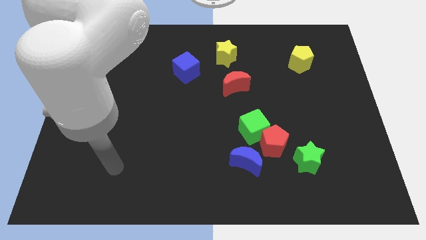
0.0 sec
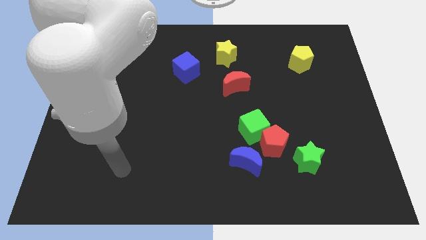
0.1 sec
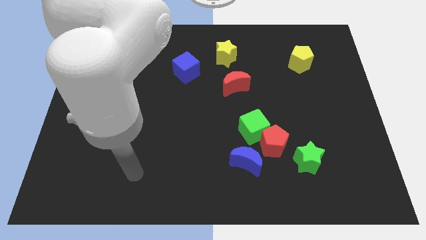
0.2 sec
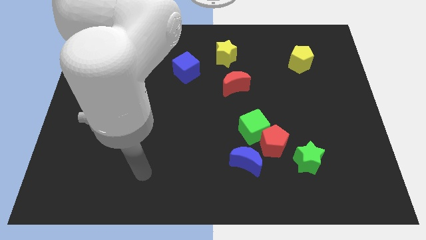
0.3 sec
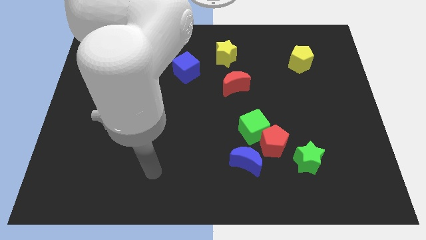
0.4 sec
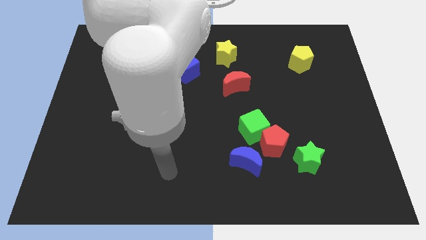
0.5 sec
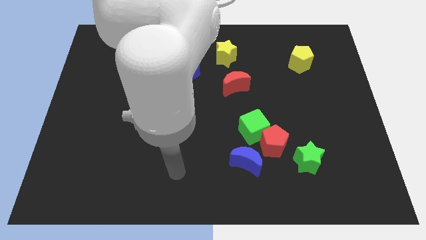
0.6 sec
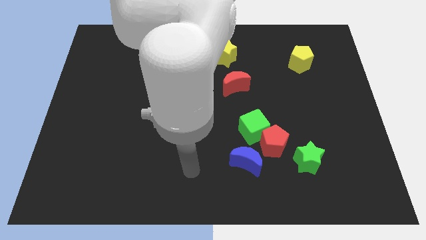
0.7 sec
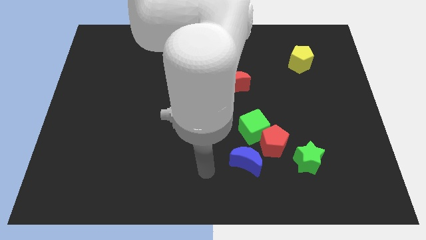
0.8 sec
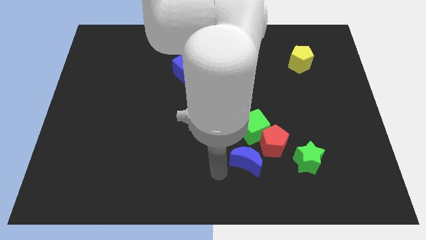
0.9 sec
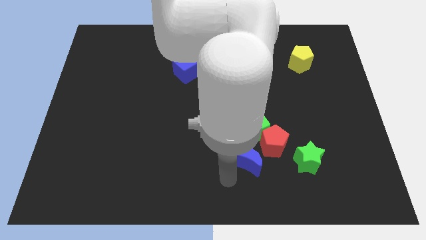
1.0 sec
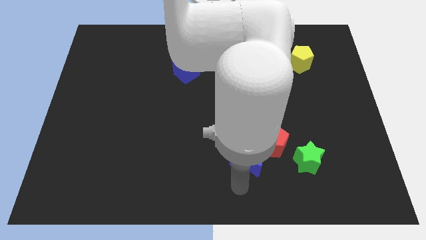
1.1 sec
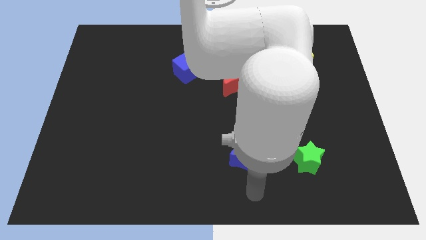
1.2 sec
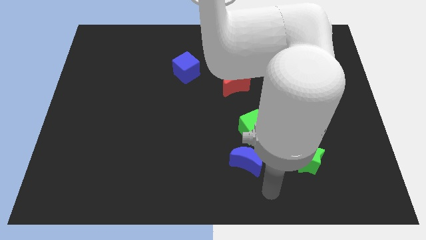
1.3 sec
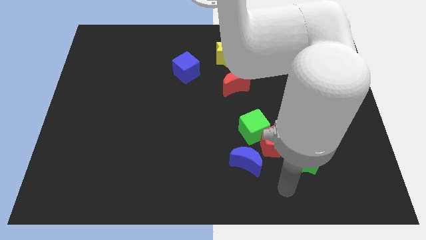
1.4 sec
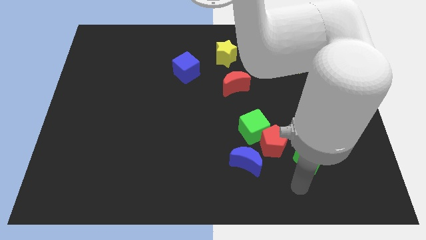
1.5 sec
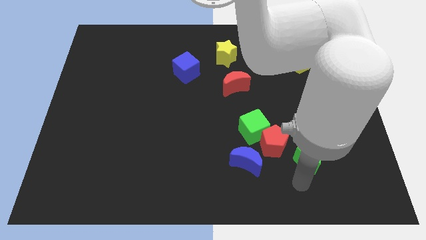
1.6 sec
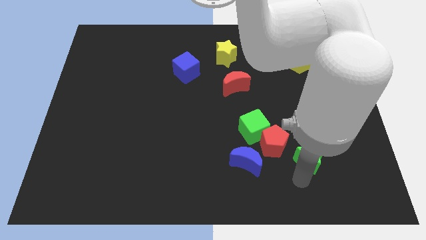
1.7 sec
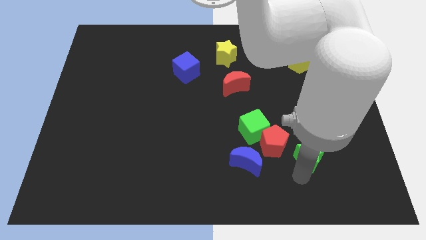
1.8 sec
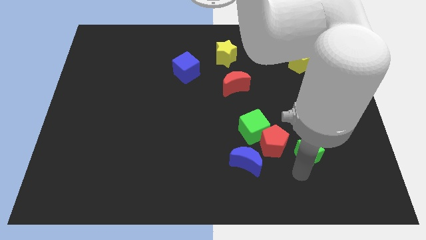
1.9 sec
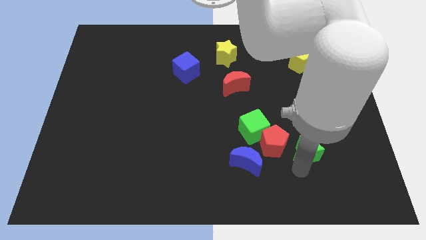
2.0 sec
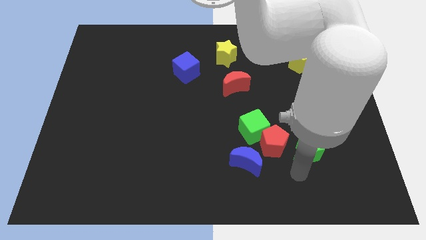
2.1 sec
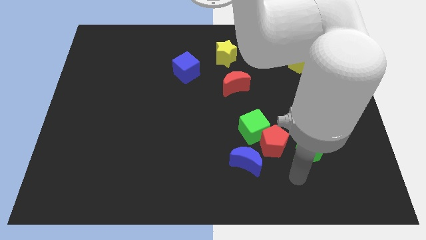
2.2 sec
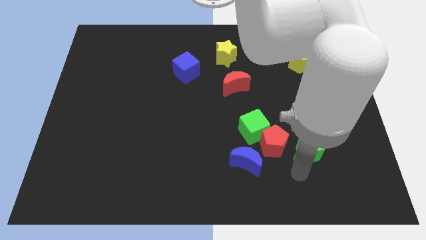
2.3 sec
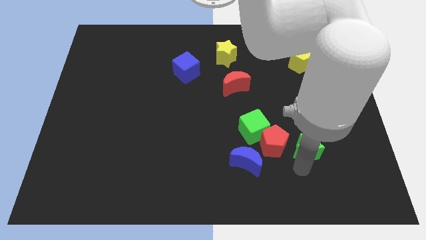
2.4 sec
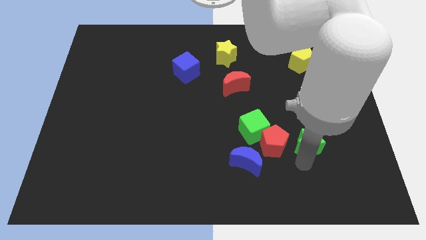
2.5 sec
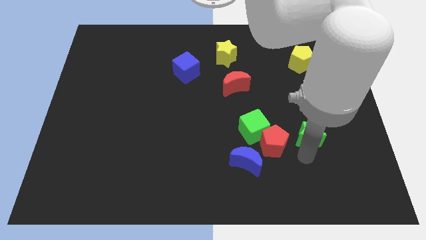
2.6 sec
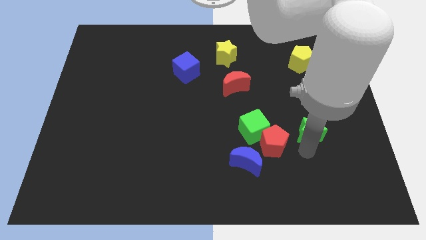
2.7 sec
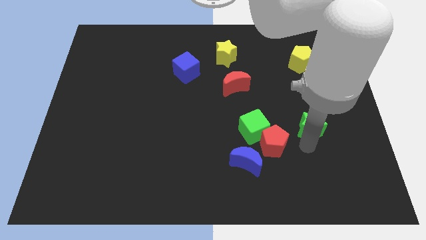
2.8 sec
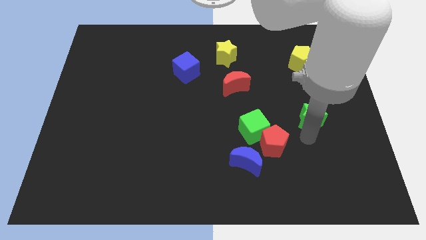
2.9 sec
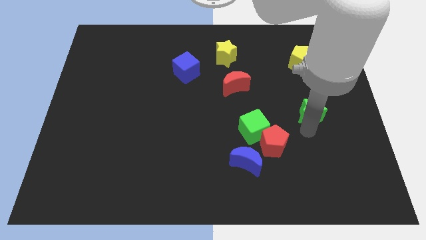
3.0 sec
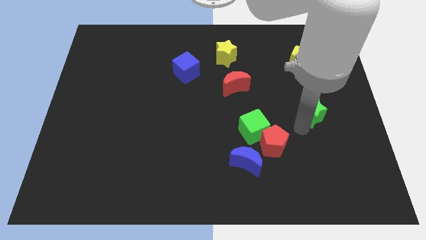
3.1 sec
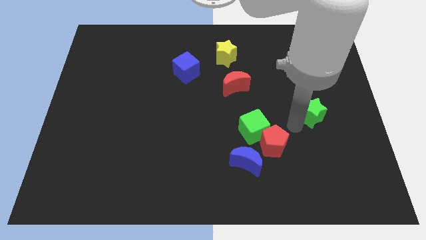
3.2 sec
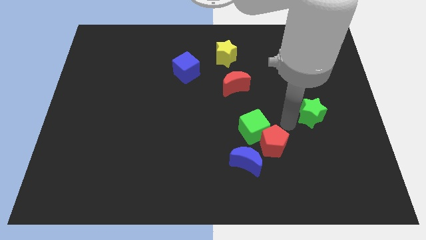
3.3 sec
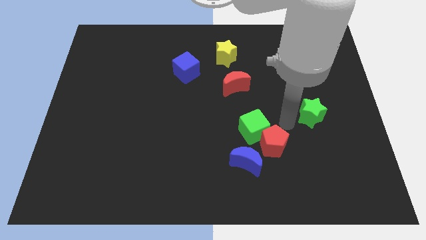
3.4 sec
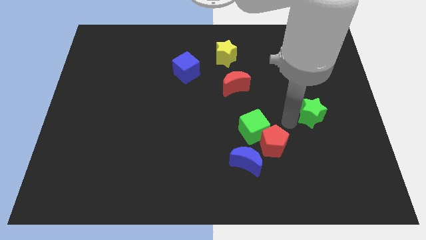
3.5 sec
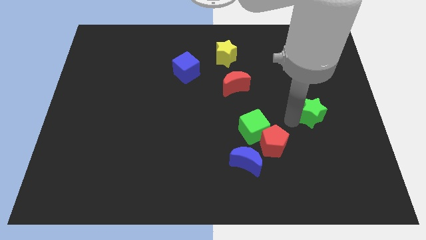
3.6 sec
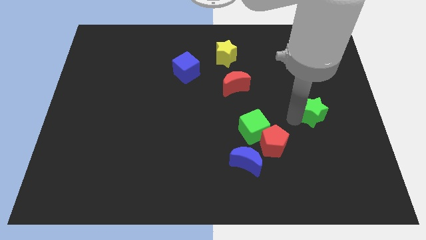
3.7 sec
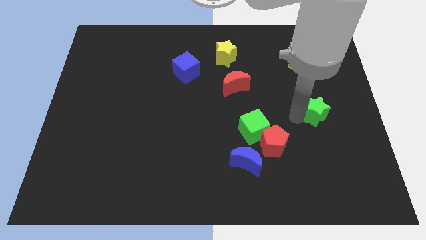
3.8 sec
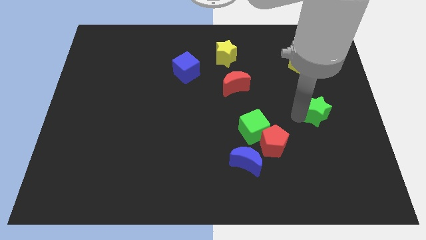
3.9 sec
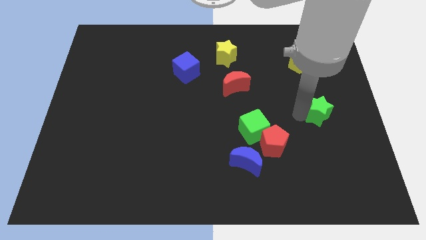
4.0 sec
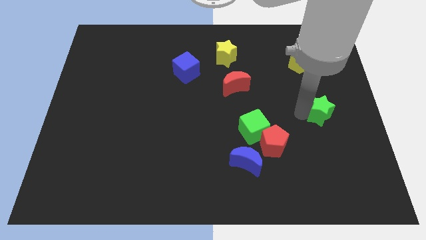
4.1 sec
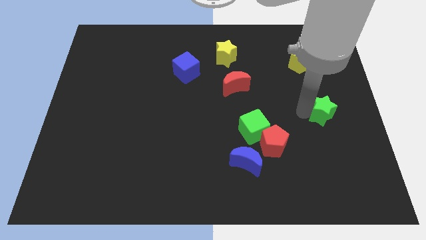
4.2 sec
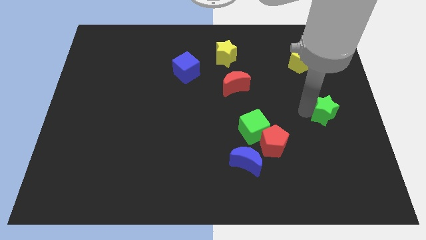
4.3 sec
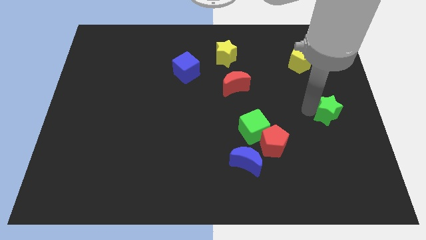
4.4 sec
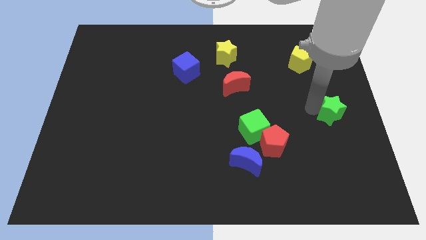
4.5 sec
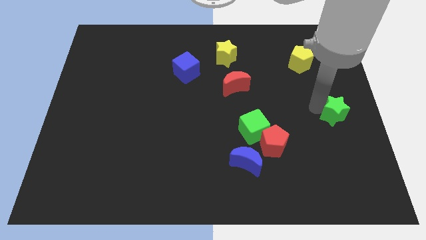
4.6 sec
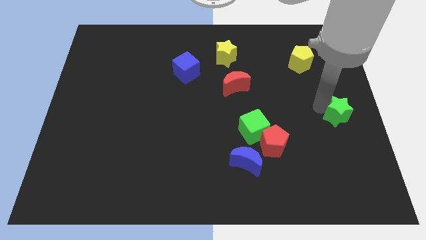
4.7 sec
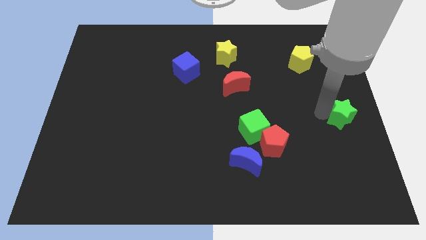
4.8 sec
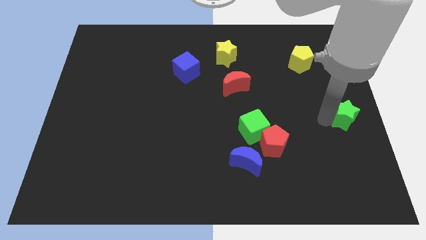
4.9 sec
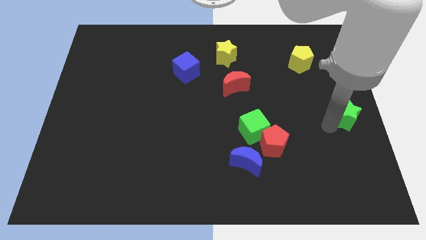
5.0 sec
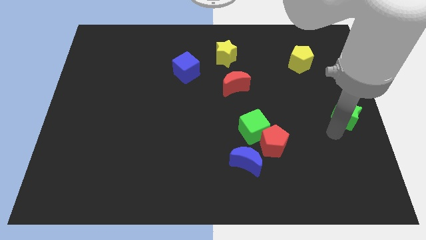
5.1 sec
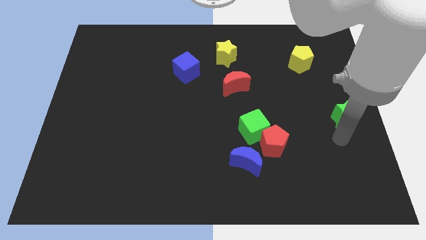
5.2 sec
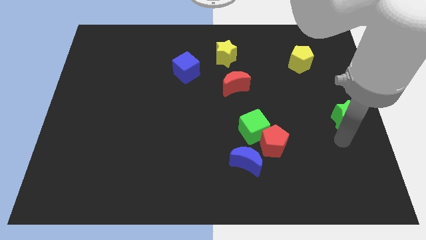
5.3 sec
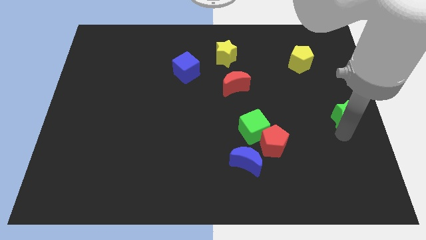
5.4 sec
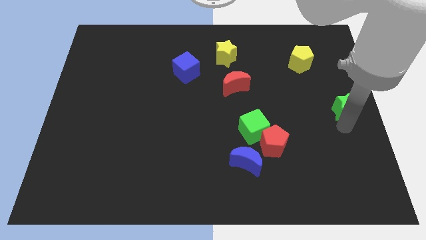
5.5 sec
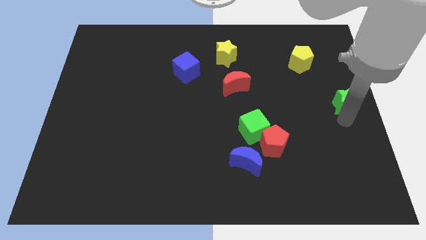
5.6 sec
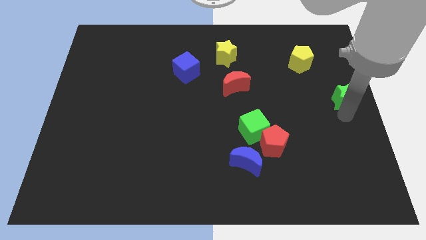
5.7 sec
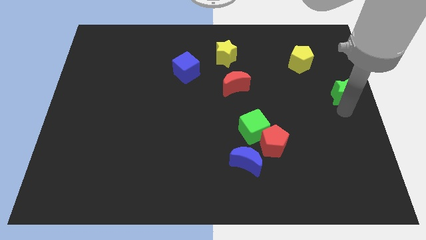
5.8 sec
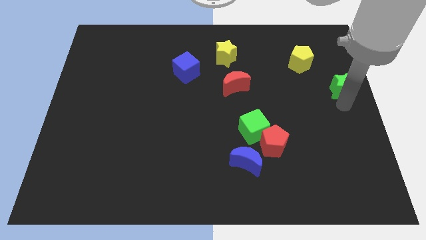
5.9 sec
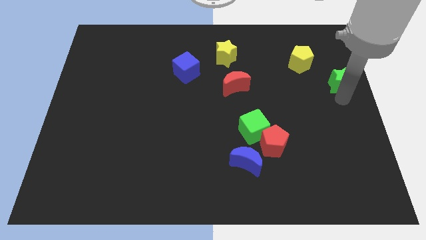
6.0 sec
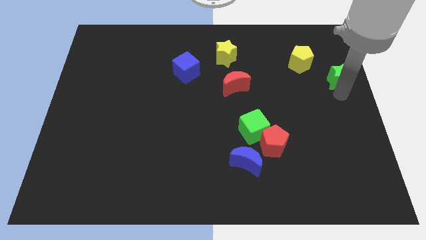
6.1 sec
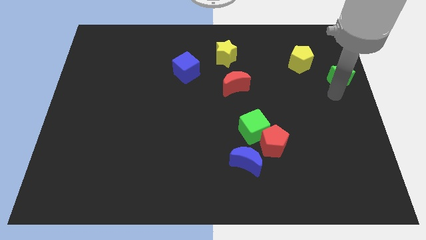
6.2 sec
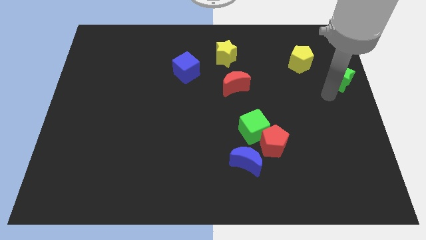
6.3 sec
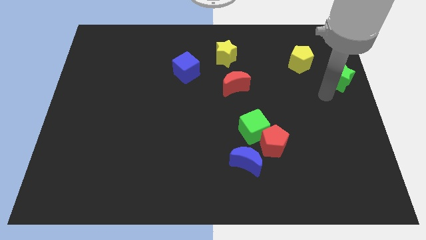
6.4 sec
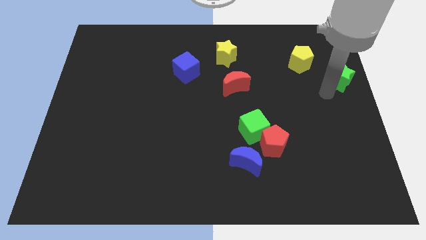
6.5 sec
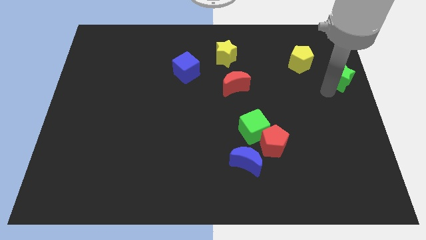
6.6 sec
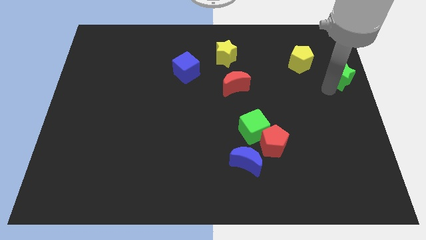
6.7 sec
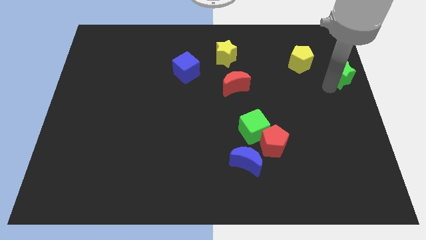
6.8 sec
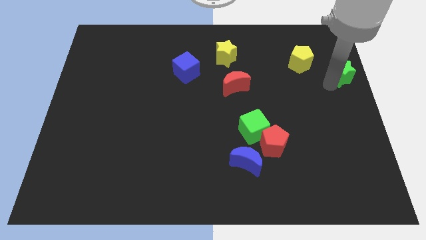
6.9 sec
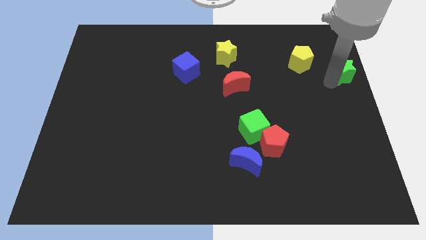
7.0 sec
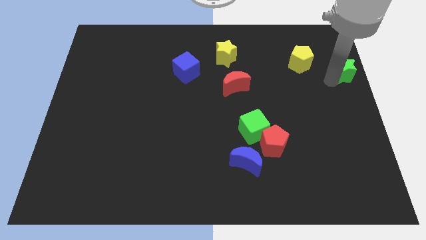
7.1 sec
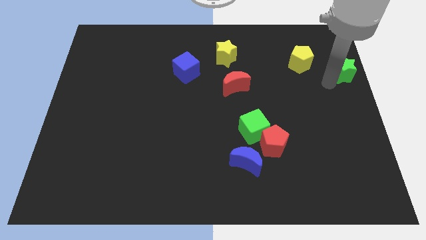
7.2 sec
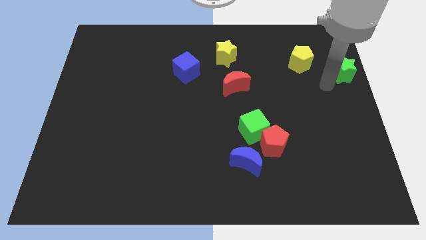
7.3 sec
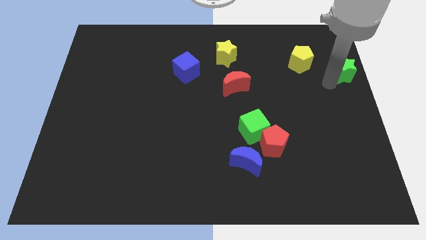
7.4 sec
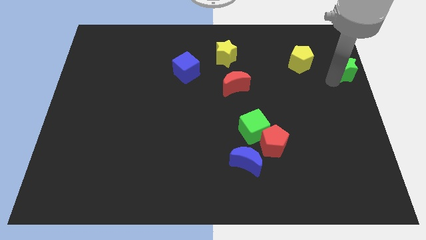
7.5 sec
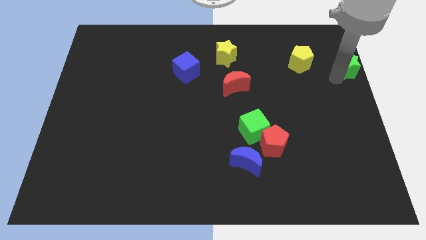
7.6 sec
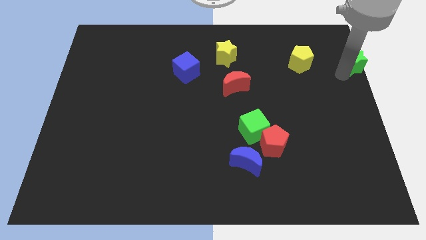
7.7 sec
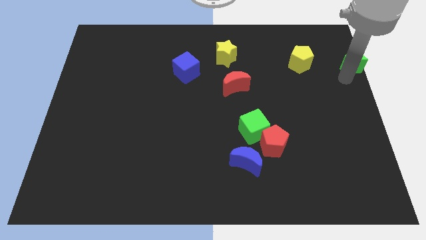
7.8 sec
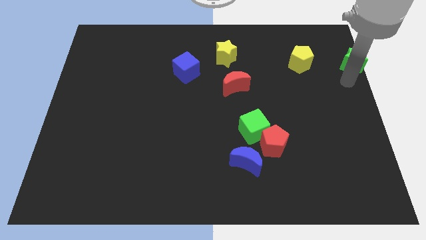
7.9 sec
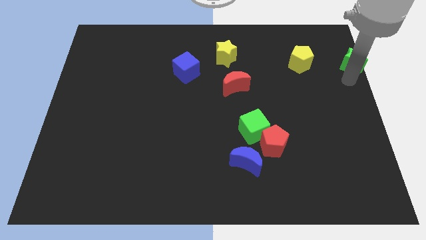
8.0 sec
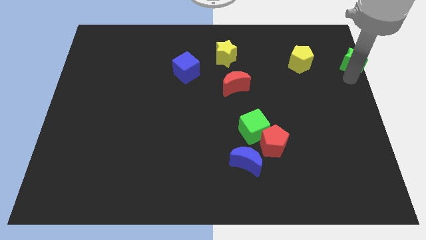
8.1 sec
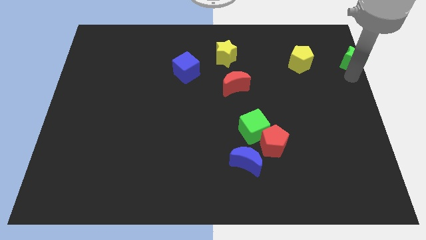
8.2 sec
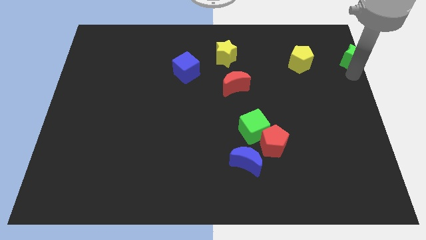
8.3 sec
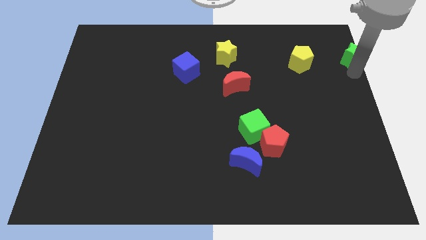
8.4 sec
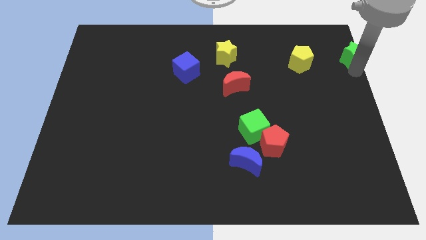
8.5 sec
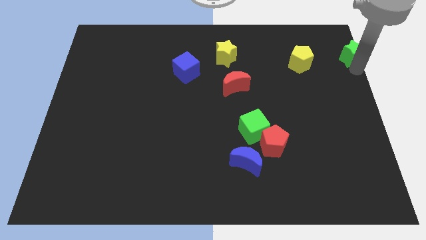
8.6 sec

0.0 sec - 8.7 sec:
move the green star to the top right of the board
